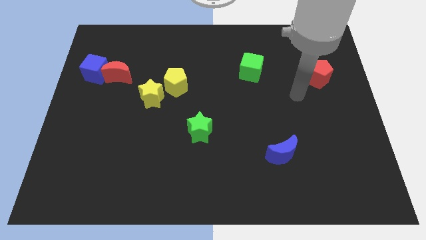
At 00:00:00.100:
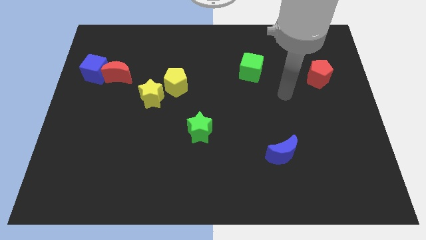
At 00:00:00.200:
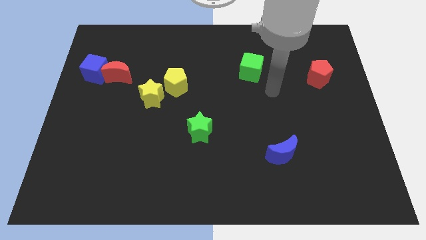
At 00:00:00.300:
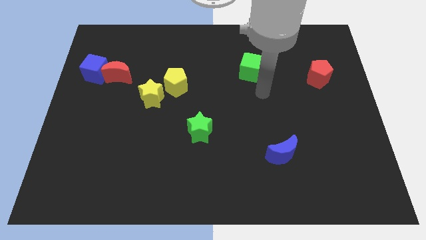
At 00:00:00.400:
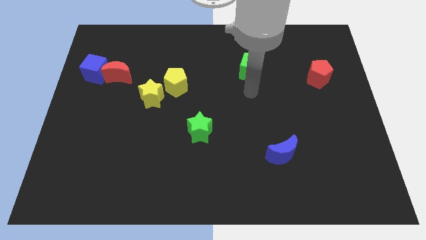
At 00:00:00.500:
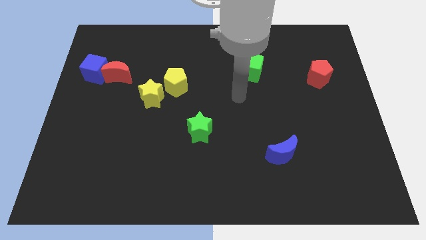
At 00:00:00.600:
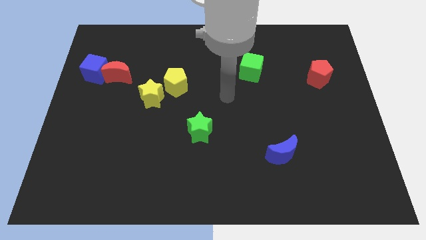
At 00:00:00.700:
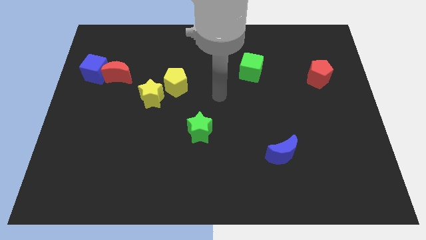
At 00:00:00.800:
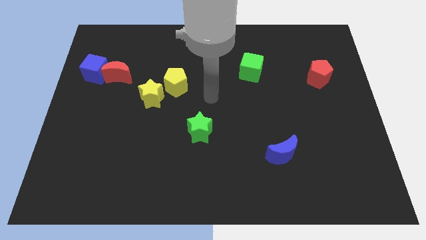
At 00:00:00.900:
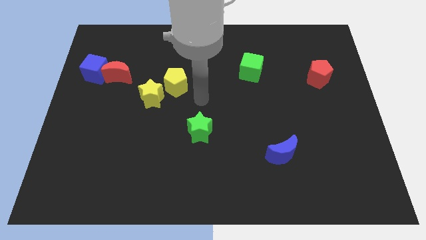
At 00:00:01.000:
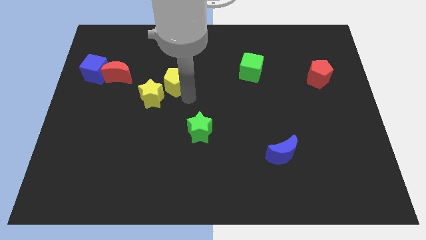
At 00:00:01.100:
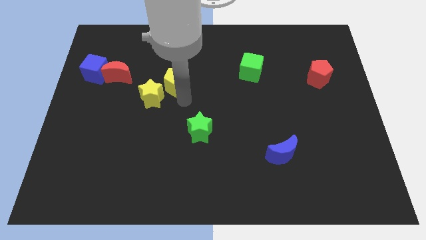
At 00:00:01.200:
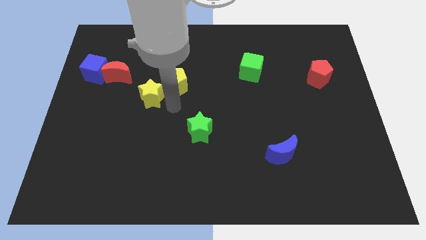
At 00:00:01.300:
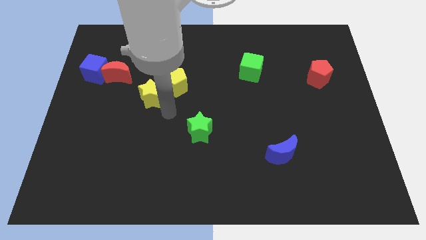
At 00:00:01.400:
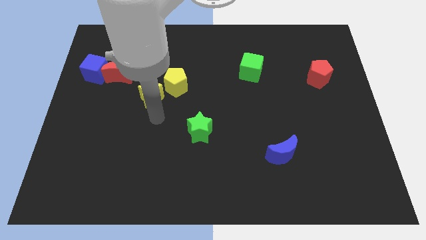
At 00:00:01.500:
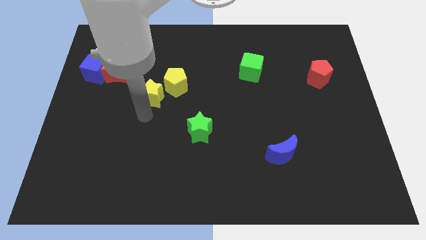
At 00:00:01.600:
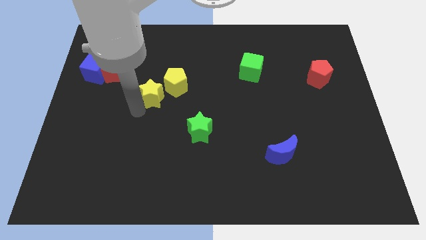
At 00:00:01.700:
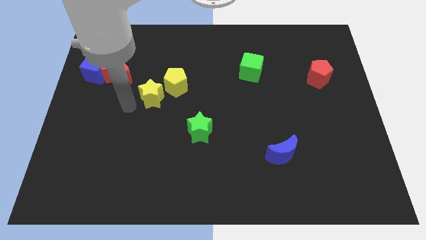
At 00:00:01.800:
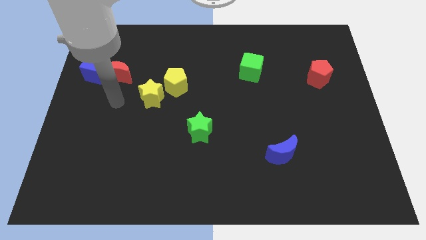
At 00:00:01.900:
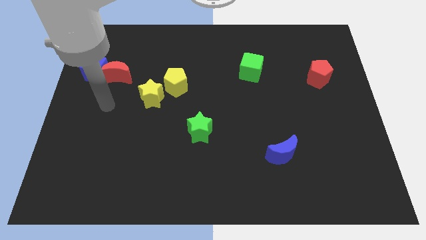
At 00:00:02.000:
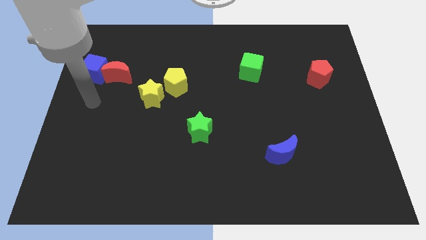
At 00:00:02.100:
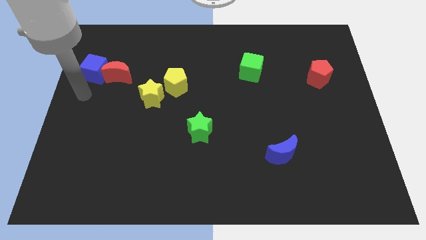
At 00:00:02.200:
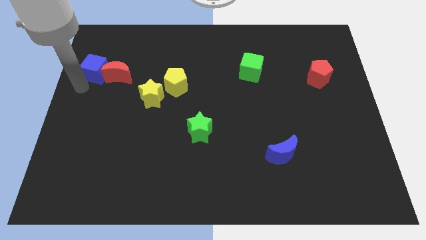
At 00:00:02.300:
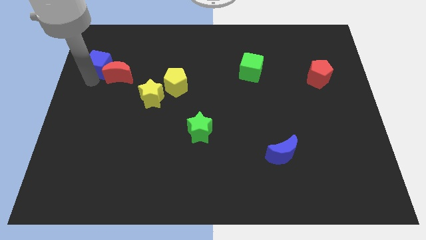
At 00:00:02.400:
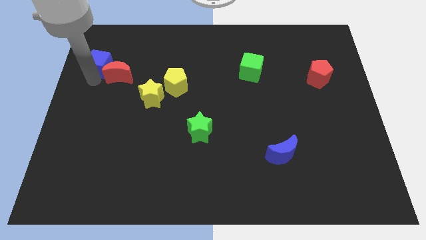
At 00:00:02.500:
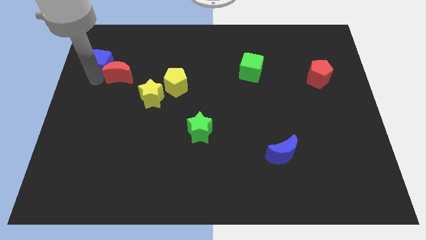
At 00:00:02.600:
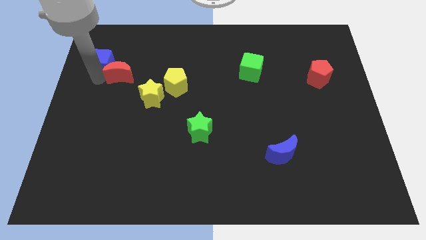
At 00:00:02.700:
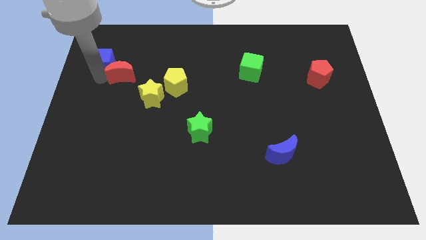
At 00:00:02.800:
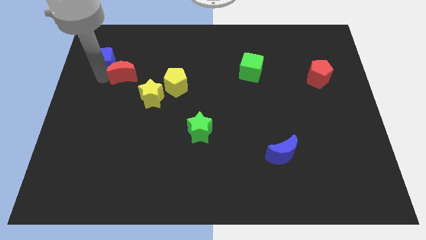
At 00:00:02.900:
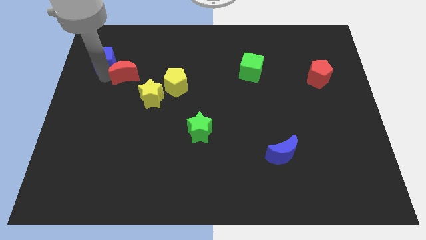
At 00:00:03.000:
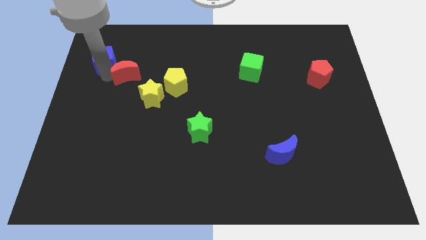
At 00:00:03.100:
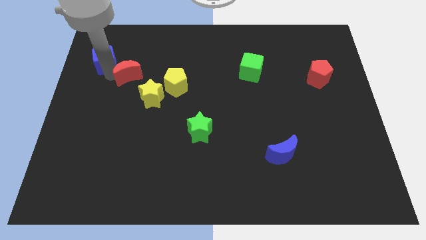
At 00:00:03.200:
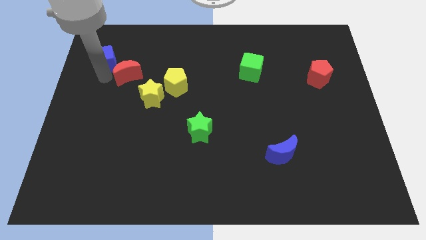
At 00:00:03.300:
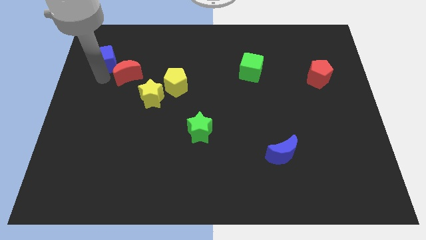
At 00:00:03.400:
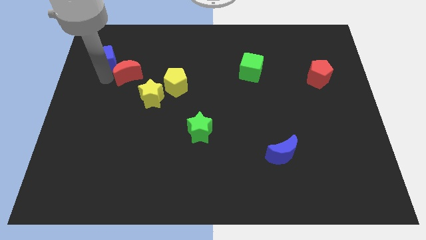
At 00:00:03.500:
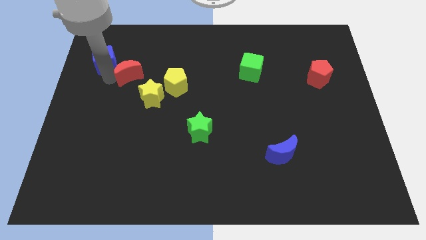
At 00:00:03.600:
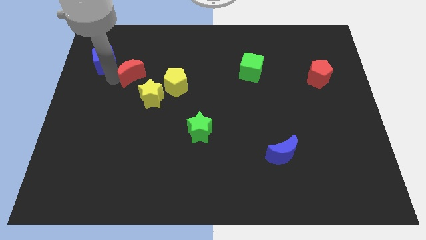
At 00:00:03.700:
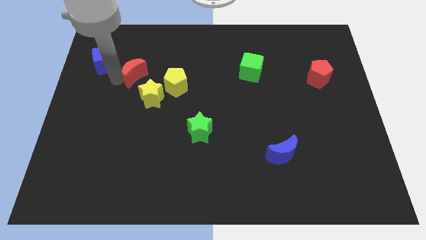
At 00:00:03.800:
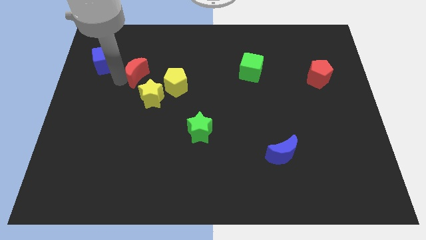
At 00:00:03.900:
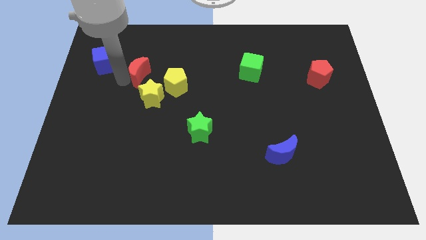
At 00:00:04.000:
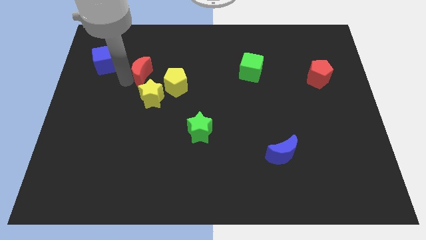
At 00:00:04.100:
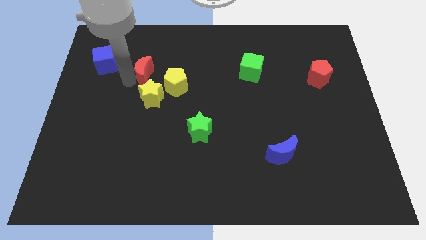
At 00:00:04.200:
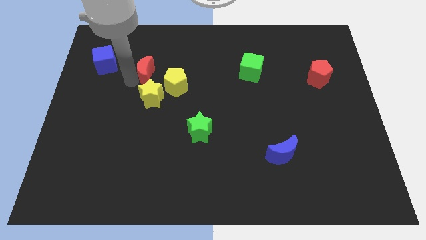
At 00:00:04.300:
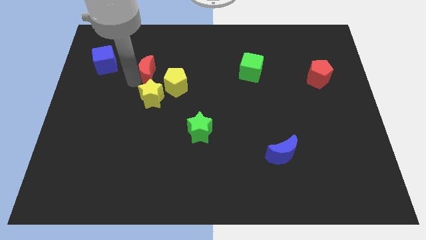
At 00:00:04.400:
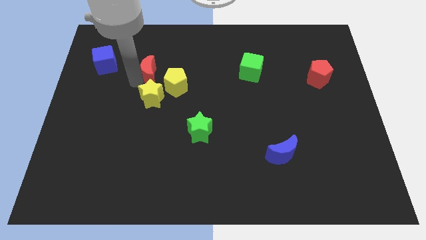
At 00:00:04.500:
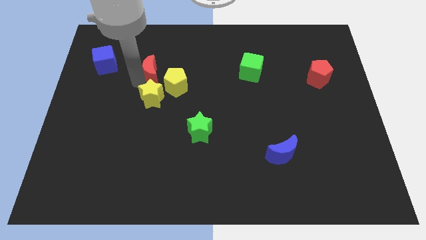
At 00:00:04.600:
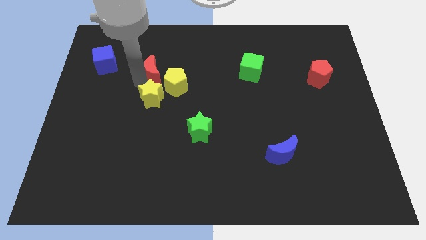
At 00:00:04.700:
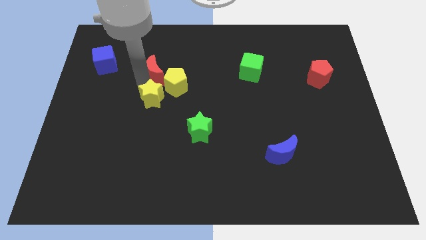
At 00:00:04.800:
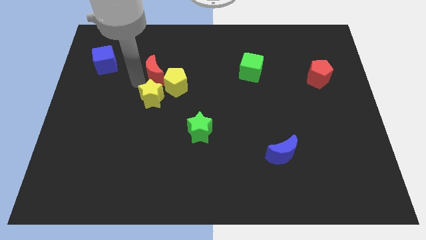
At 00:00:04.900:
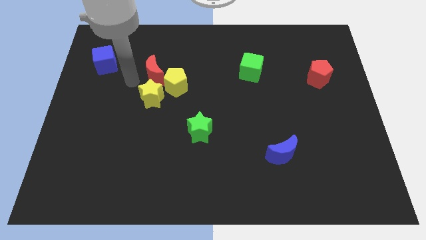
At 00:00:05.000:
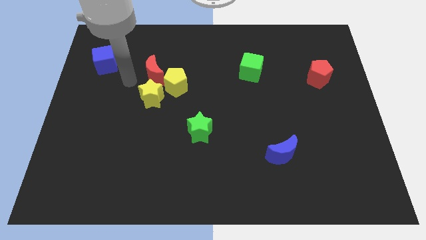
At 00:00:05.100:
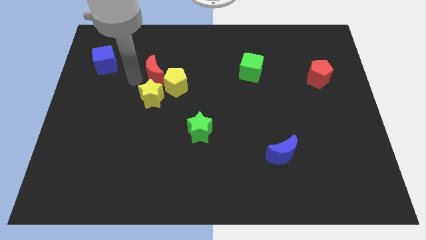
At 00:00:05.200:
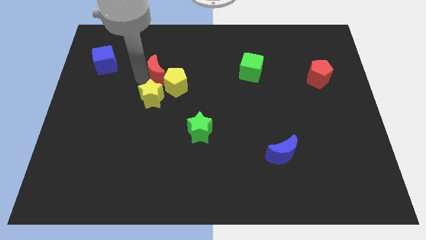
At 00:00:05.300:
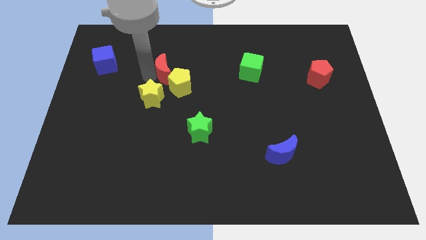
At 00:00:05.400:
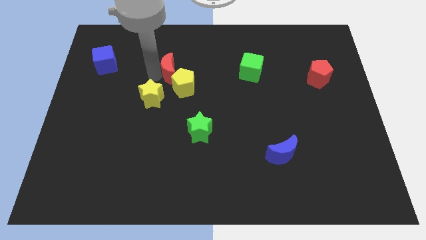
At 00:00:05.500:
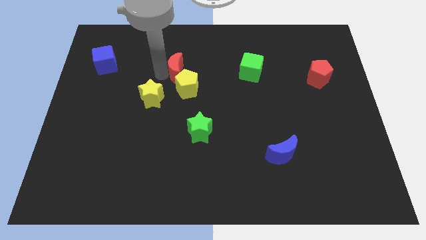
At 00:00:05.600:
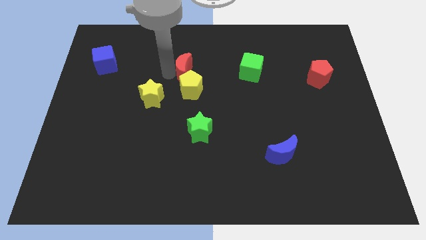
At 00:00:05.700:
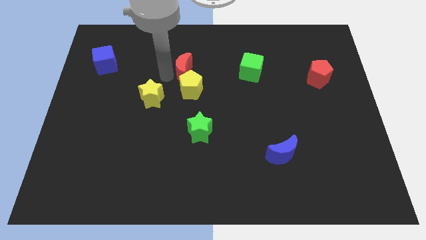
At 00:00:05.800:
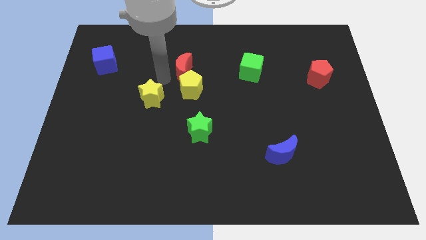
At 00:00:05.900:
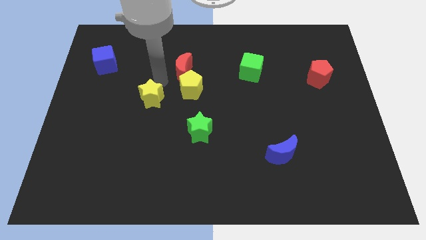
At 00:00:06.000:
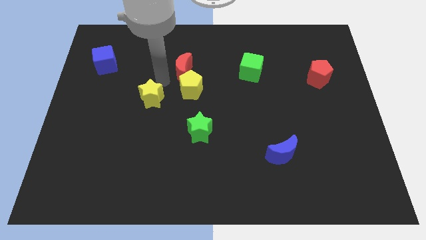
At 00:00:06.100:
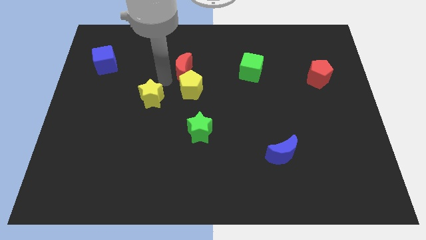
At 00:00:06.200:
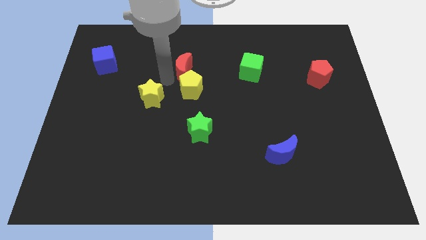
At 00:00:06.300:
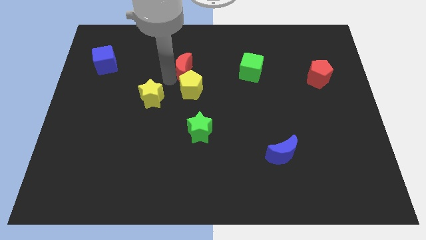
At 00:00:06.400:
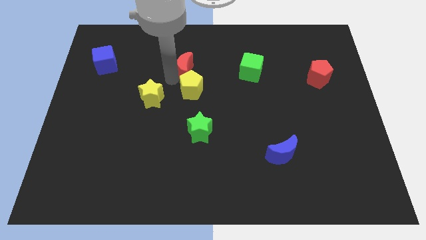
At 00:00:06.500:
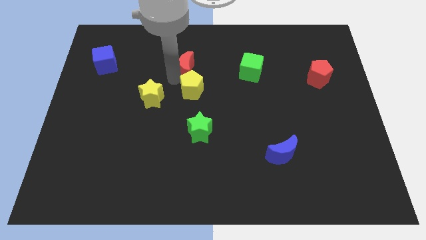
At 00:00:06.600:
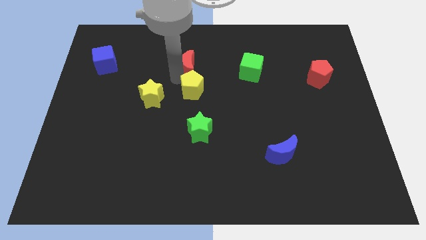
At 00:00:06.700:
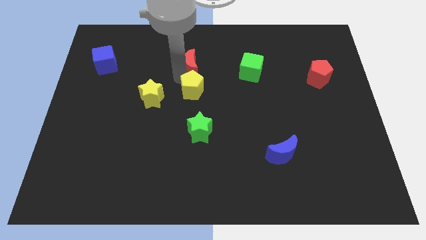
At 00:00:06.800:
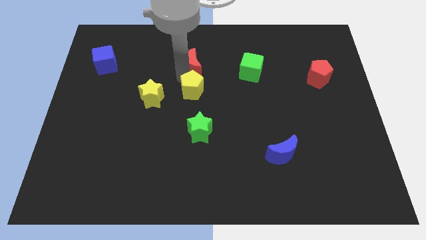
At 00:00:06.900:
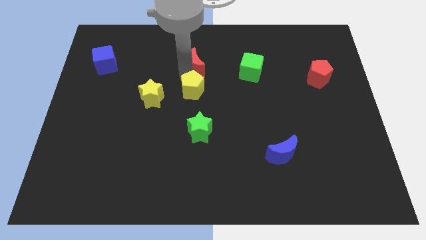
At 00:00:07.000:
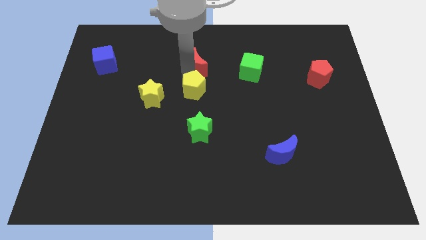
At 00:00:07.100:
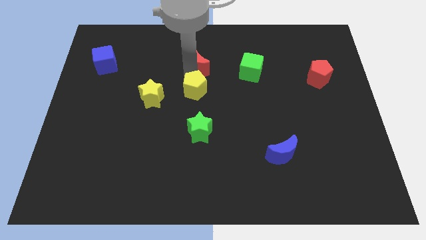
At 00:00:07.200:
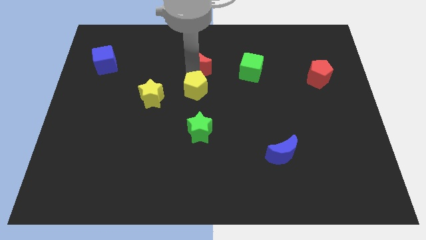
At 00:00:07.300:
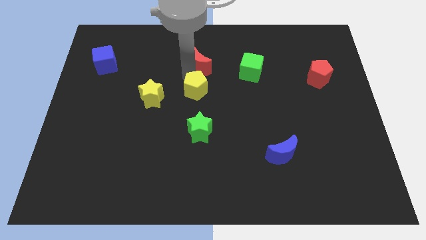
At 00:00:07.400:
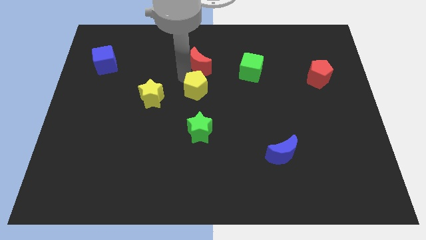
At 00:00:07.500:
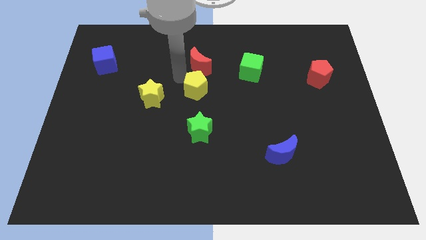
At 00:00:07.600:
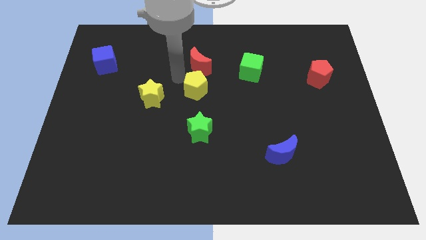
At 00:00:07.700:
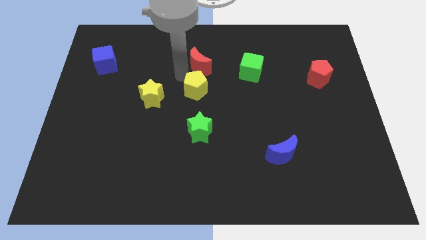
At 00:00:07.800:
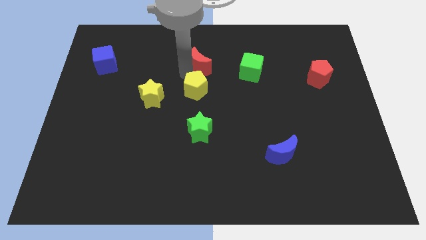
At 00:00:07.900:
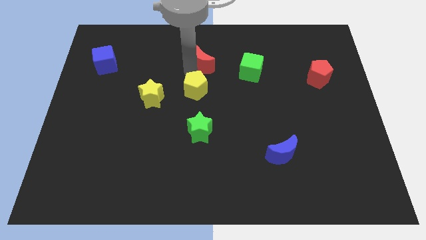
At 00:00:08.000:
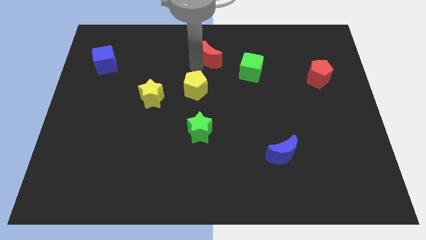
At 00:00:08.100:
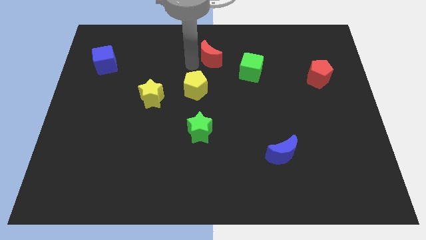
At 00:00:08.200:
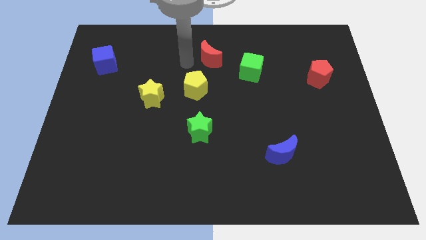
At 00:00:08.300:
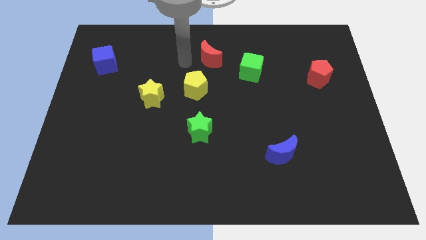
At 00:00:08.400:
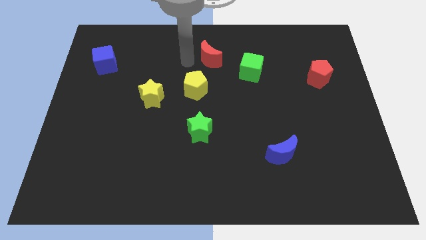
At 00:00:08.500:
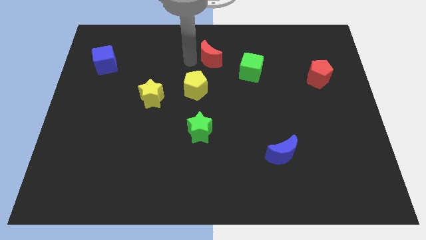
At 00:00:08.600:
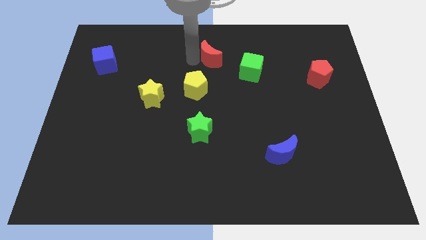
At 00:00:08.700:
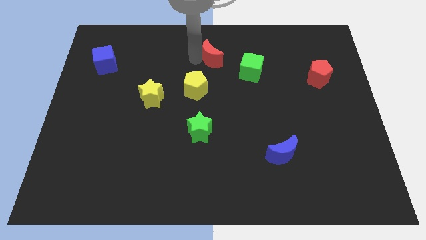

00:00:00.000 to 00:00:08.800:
slide the red moon diagonally up and to the left of the green cube
